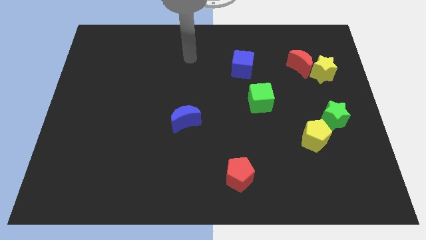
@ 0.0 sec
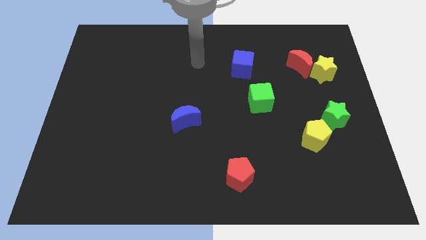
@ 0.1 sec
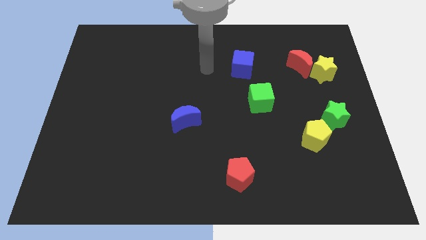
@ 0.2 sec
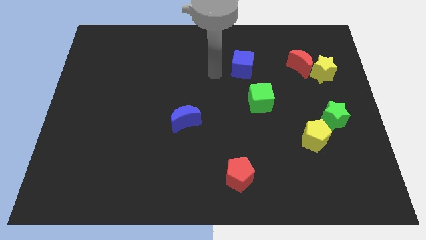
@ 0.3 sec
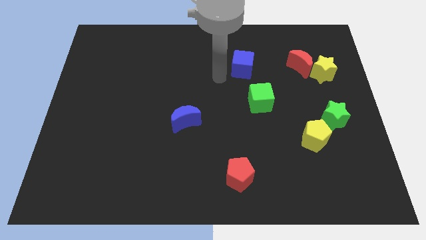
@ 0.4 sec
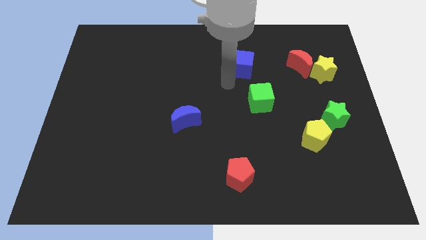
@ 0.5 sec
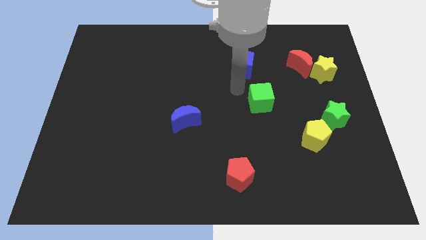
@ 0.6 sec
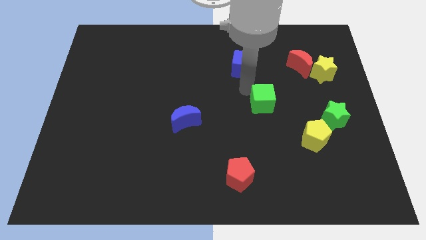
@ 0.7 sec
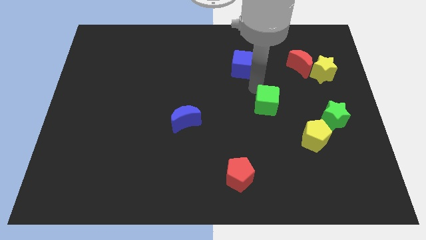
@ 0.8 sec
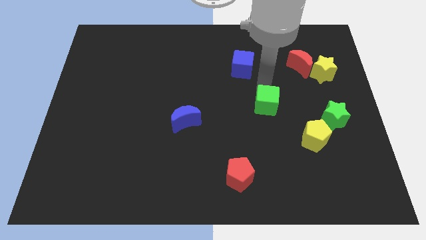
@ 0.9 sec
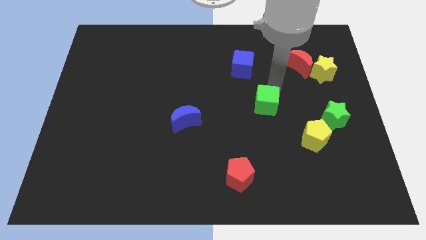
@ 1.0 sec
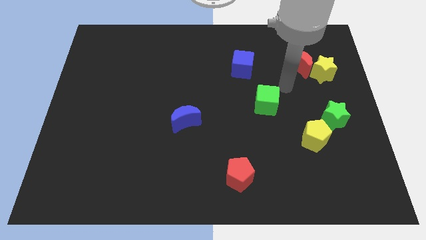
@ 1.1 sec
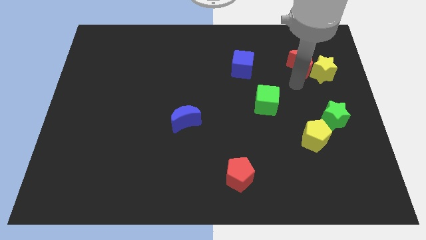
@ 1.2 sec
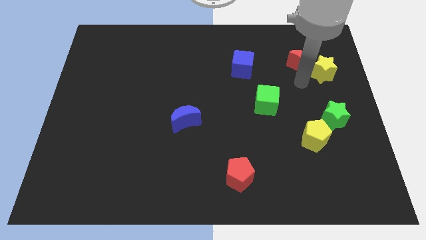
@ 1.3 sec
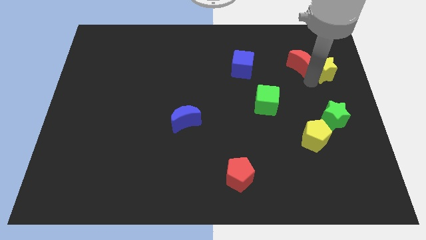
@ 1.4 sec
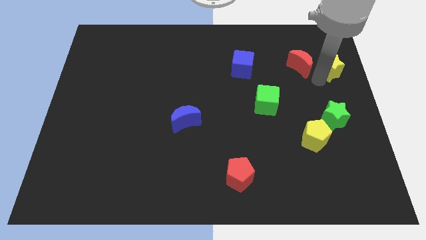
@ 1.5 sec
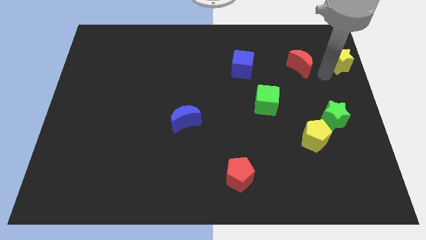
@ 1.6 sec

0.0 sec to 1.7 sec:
pull the red moon apart from the yellow star

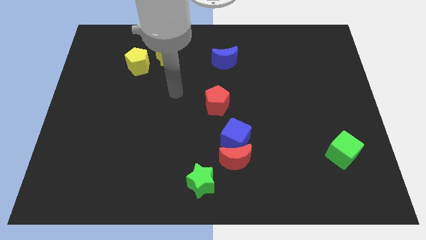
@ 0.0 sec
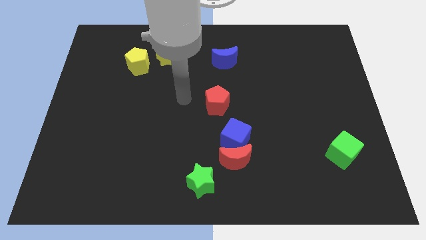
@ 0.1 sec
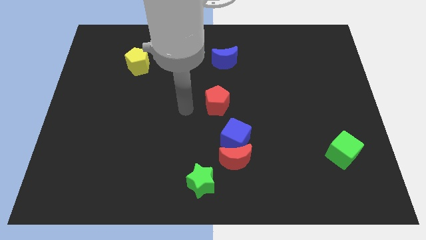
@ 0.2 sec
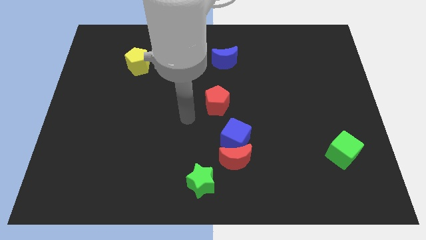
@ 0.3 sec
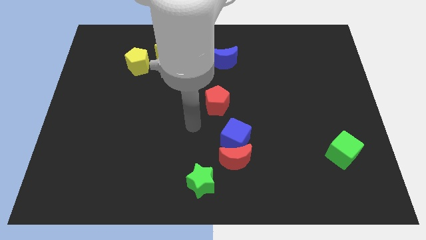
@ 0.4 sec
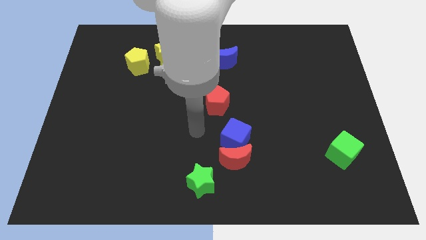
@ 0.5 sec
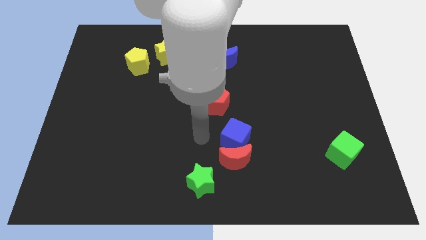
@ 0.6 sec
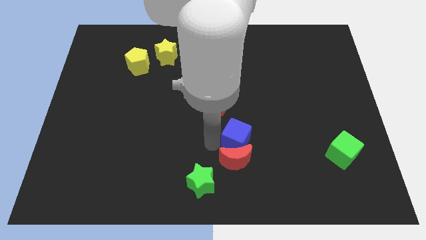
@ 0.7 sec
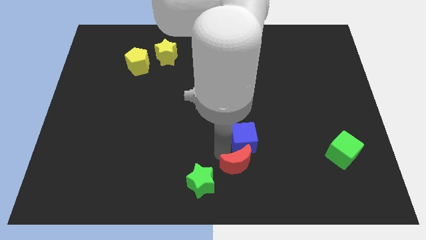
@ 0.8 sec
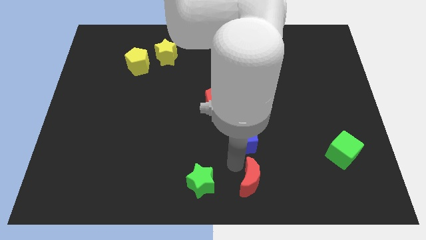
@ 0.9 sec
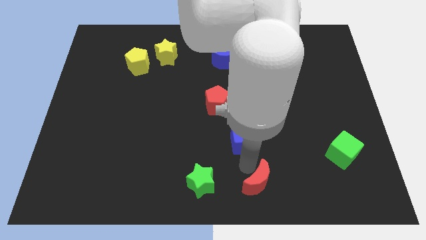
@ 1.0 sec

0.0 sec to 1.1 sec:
separate the blue cube from the red moon

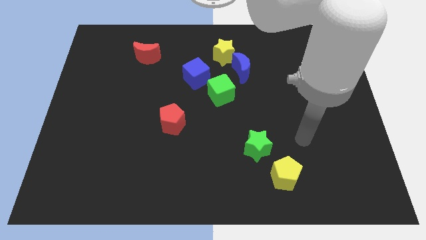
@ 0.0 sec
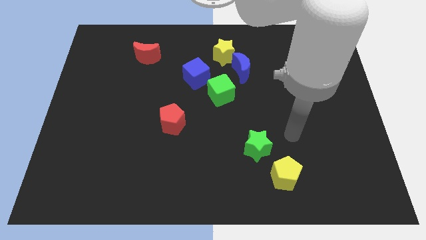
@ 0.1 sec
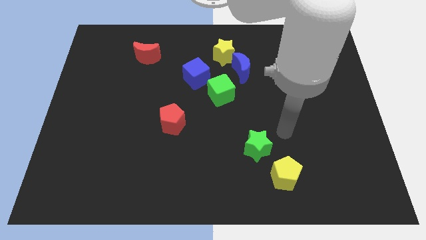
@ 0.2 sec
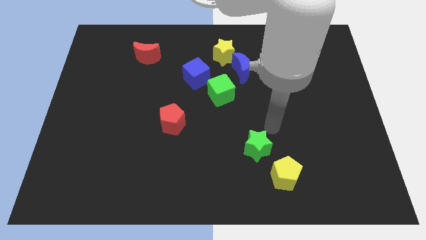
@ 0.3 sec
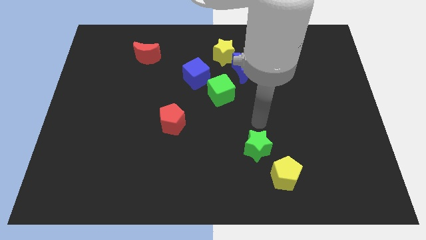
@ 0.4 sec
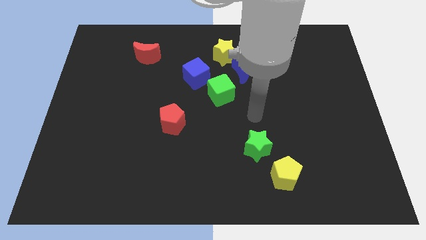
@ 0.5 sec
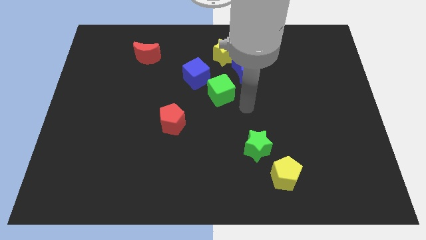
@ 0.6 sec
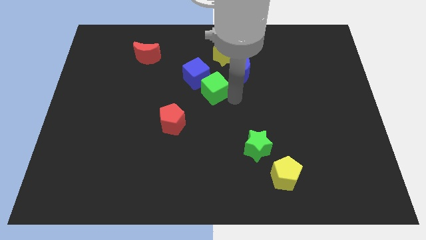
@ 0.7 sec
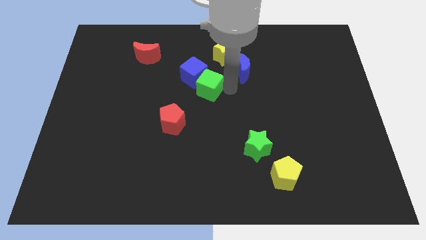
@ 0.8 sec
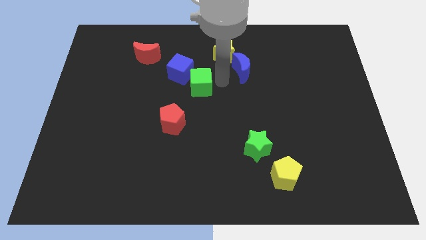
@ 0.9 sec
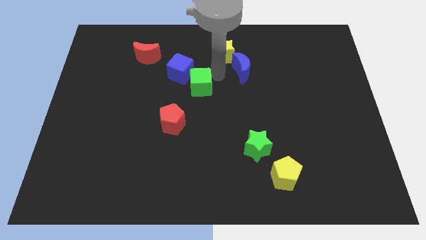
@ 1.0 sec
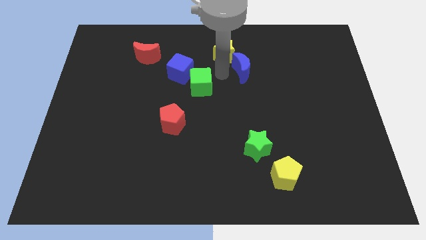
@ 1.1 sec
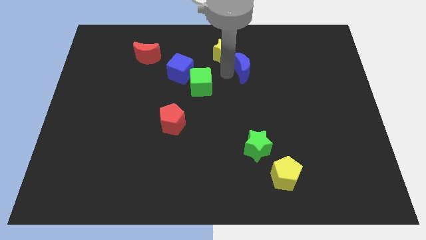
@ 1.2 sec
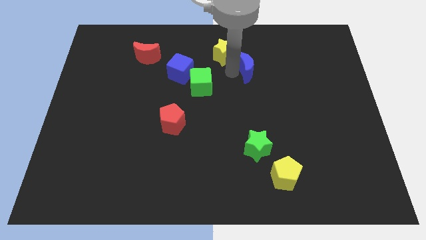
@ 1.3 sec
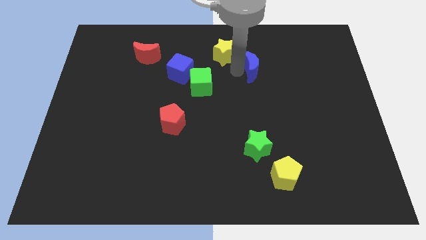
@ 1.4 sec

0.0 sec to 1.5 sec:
separate the blue moon from the yellow star and green cube

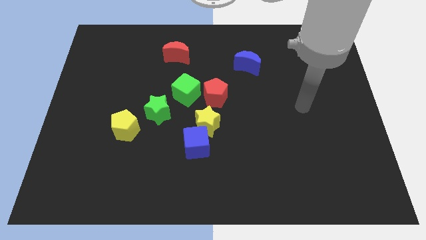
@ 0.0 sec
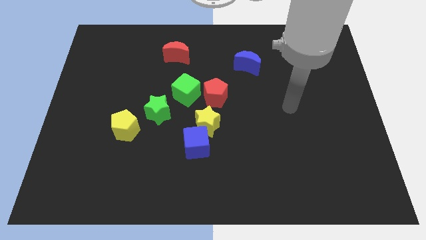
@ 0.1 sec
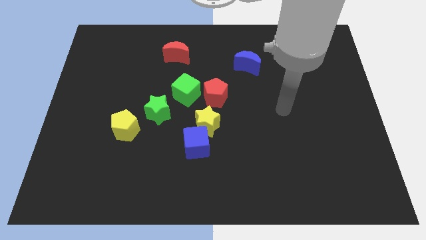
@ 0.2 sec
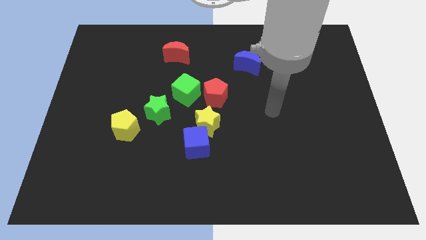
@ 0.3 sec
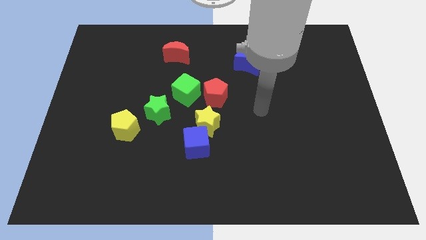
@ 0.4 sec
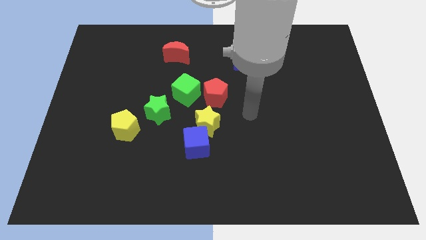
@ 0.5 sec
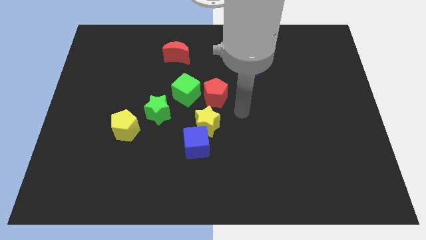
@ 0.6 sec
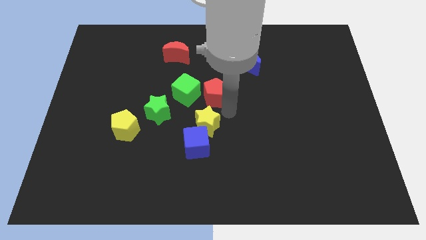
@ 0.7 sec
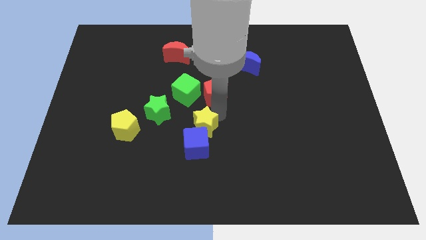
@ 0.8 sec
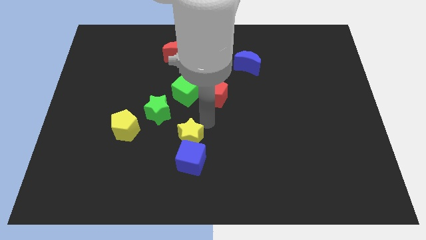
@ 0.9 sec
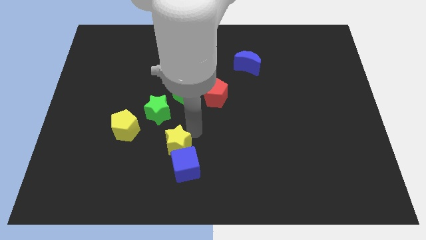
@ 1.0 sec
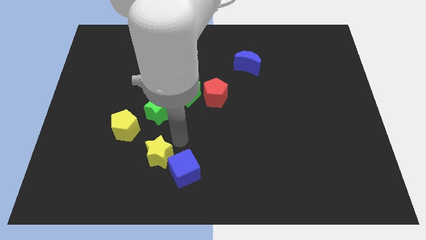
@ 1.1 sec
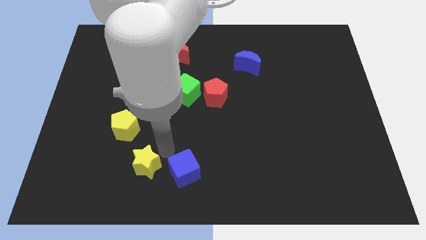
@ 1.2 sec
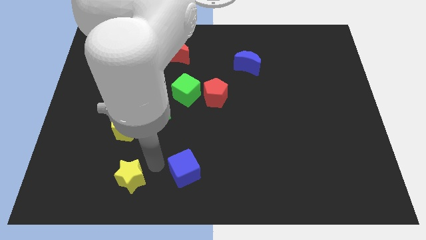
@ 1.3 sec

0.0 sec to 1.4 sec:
separate the blue cube from the yellow star

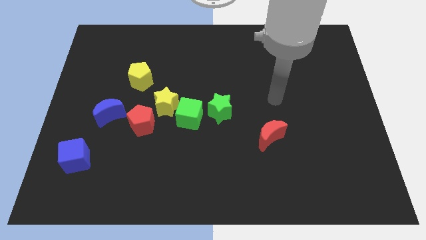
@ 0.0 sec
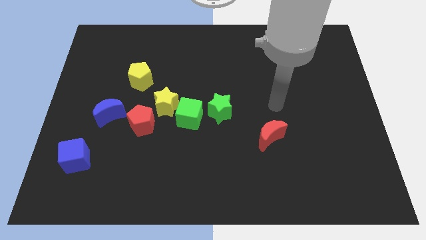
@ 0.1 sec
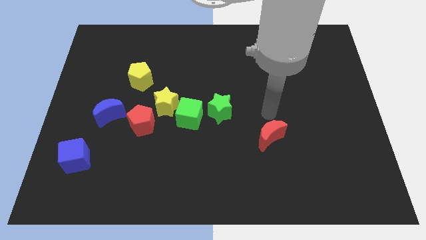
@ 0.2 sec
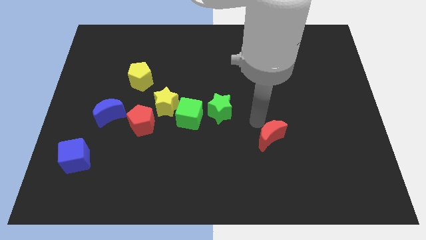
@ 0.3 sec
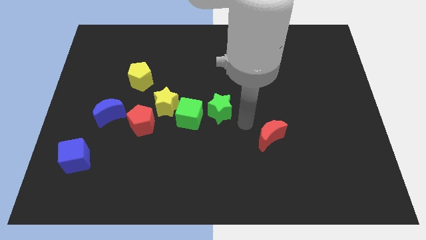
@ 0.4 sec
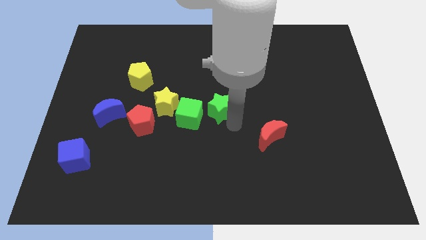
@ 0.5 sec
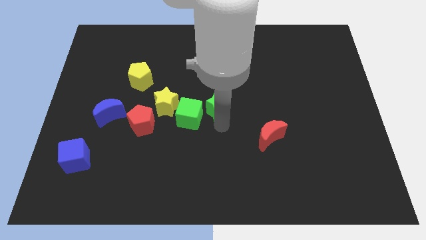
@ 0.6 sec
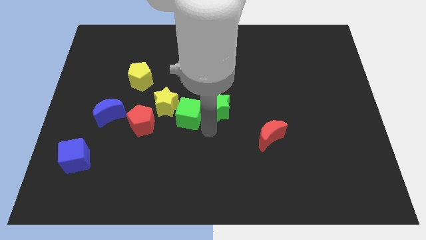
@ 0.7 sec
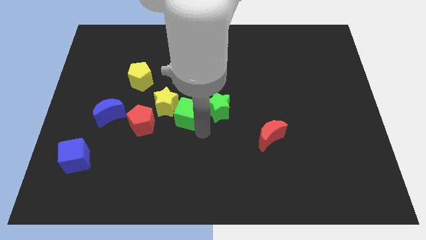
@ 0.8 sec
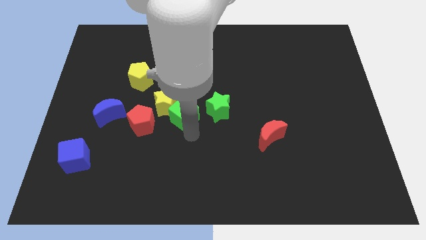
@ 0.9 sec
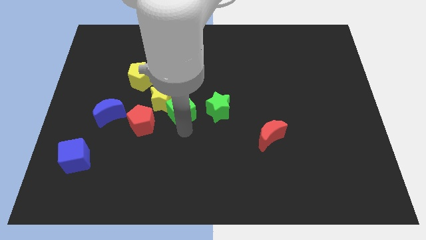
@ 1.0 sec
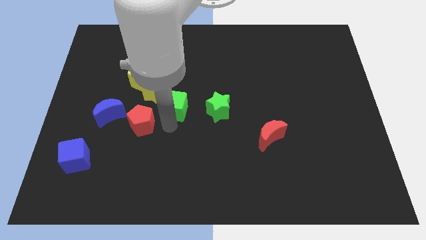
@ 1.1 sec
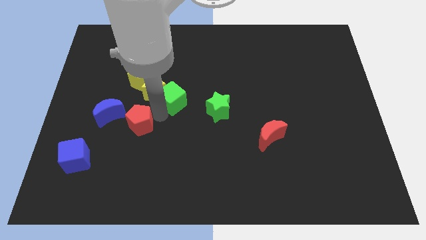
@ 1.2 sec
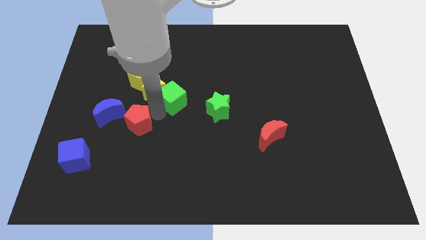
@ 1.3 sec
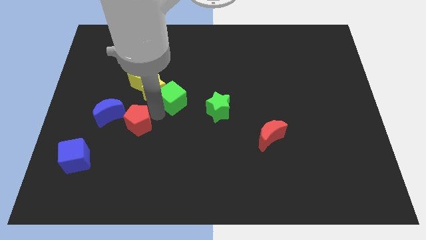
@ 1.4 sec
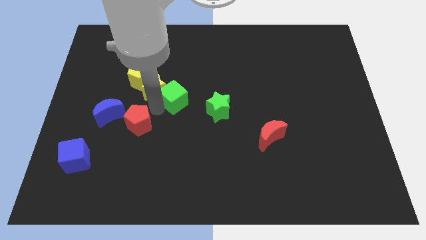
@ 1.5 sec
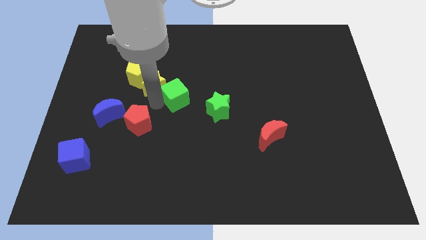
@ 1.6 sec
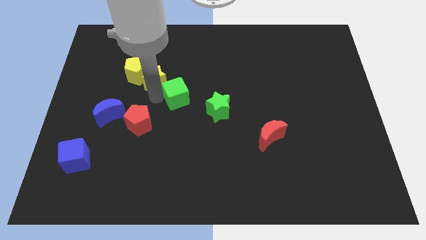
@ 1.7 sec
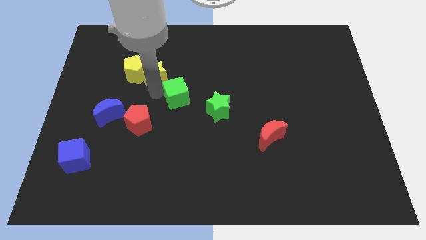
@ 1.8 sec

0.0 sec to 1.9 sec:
separate the yellow star from the green cube and red pentagon

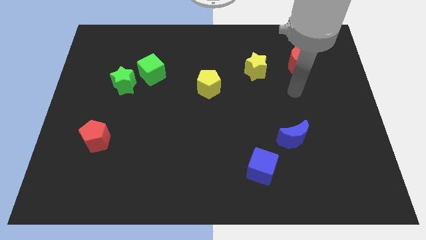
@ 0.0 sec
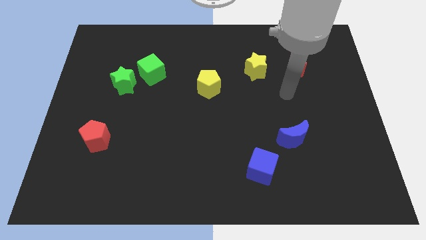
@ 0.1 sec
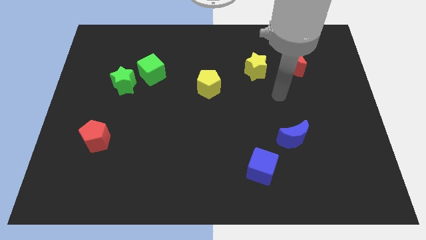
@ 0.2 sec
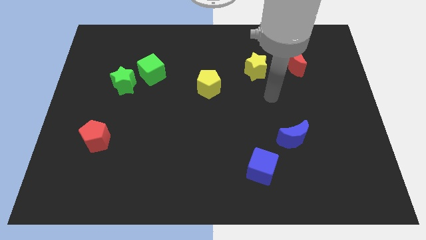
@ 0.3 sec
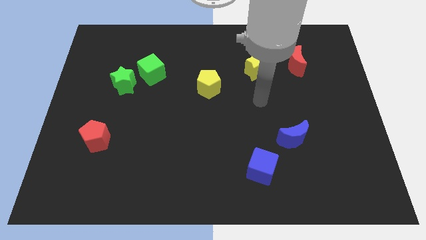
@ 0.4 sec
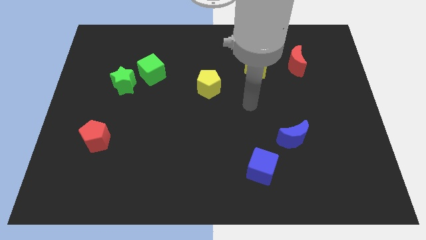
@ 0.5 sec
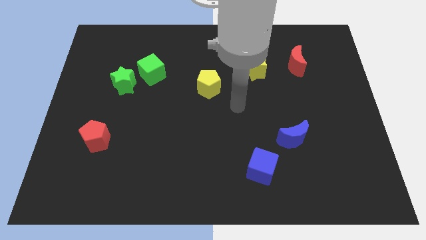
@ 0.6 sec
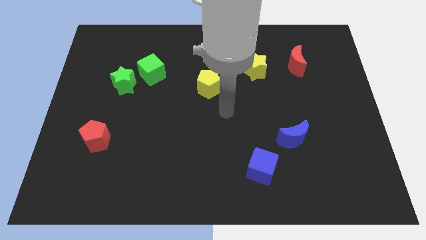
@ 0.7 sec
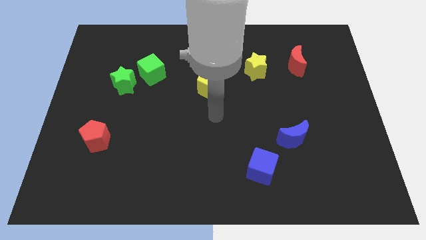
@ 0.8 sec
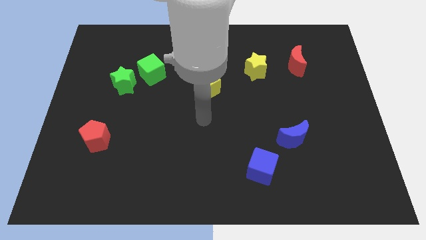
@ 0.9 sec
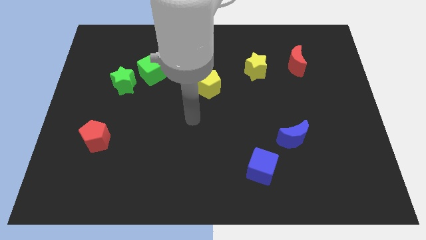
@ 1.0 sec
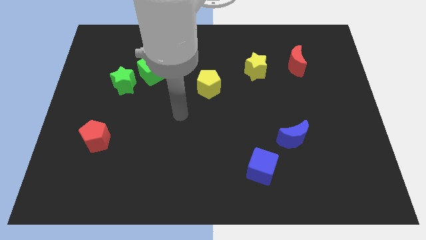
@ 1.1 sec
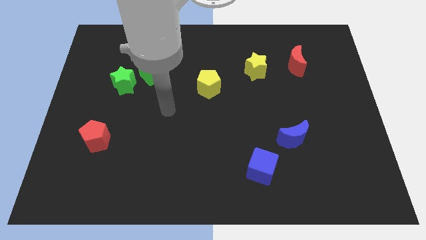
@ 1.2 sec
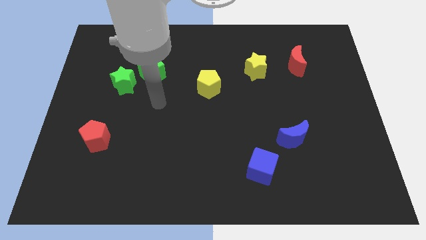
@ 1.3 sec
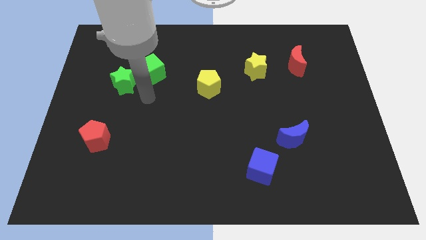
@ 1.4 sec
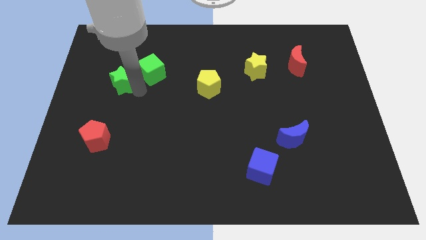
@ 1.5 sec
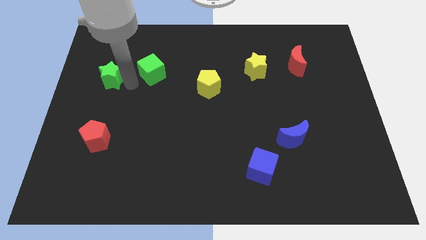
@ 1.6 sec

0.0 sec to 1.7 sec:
pull the green cube apart from the green star
